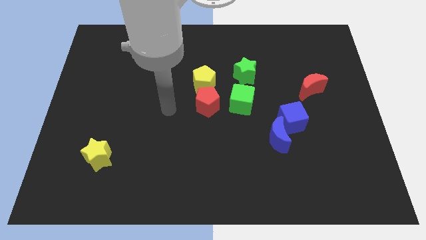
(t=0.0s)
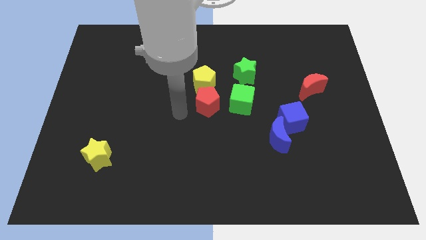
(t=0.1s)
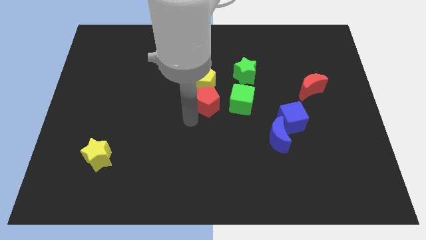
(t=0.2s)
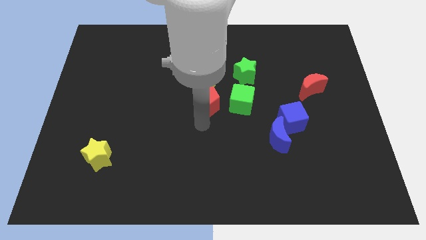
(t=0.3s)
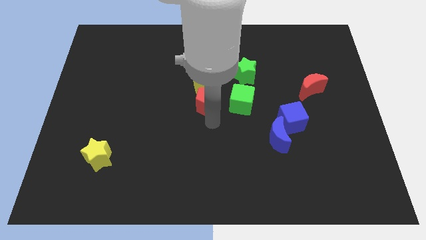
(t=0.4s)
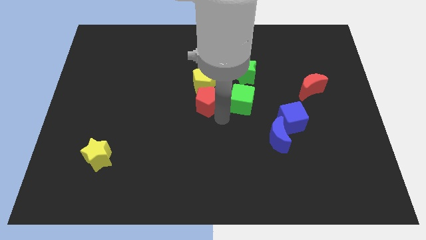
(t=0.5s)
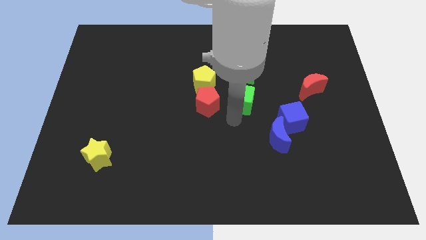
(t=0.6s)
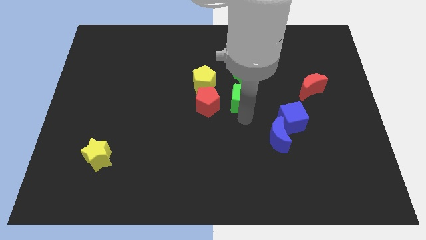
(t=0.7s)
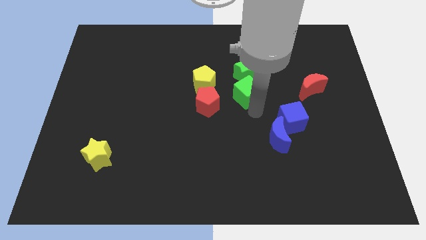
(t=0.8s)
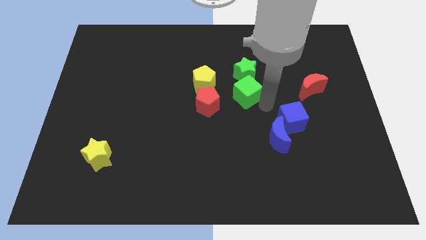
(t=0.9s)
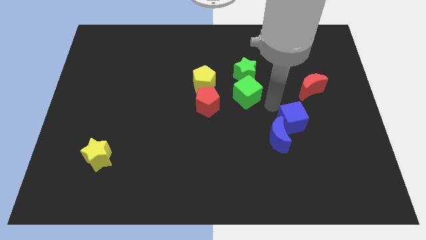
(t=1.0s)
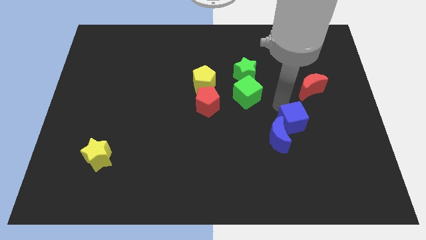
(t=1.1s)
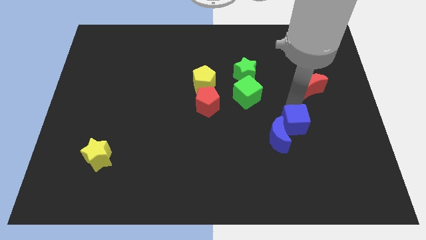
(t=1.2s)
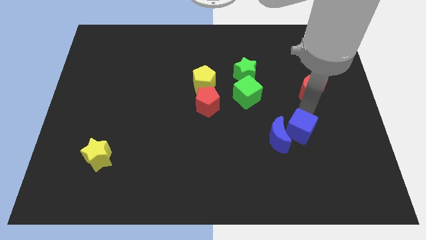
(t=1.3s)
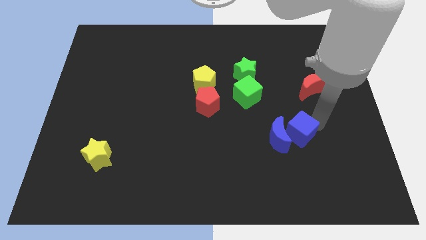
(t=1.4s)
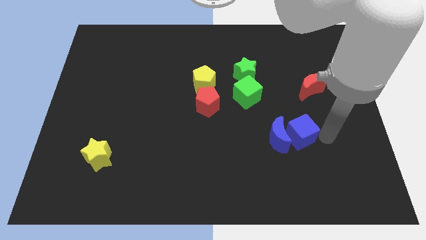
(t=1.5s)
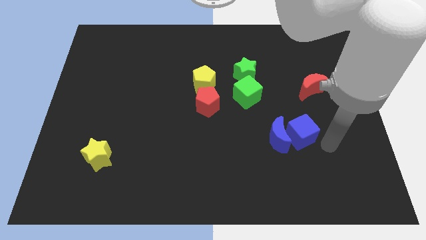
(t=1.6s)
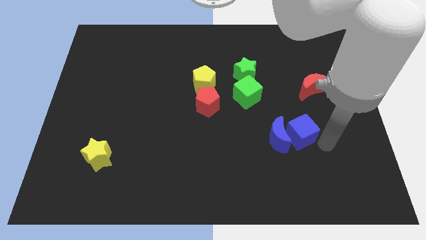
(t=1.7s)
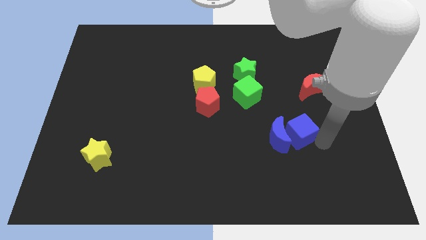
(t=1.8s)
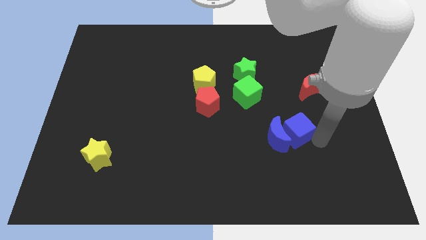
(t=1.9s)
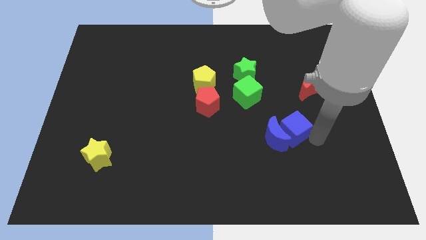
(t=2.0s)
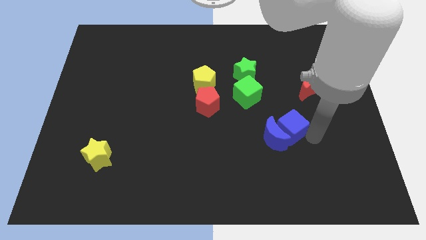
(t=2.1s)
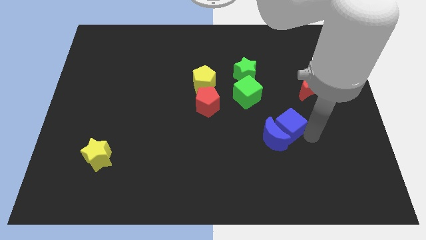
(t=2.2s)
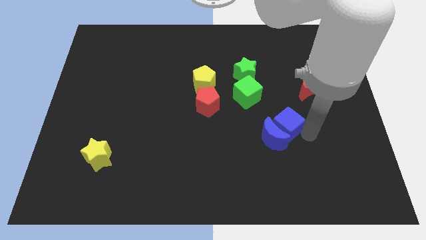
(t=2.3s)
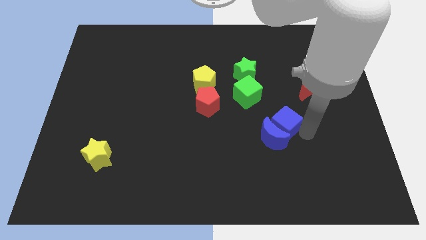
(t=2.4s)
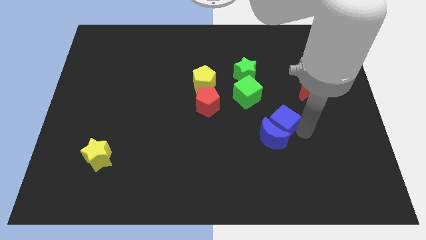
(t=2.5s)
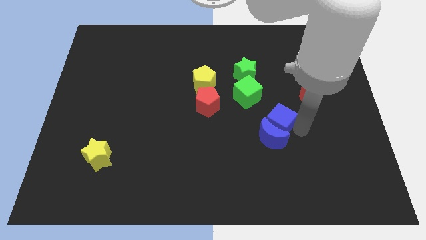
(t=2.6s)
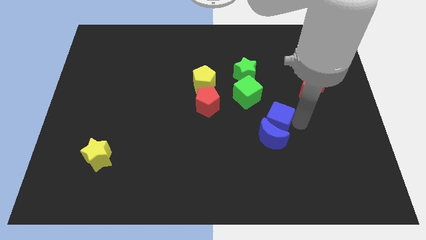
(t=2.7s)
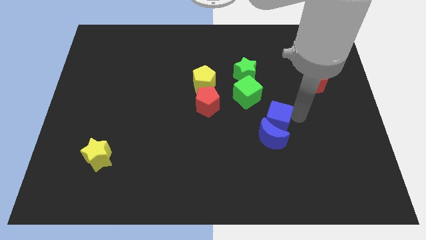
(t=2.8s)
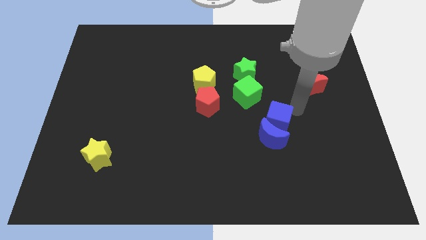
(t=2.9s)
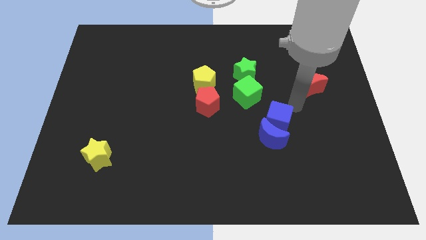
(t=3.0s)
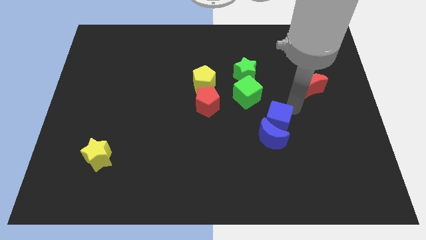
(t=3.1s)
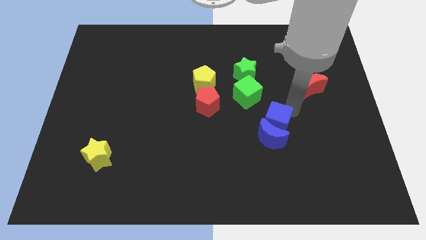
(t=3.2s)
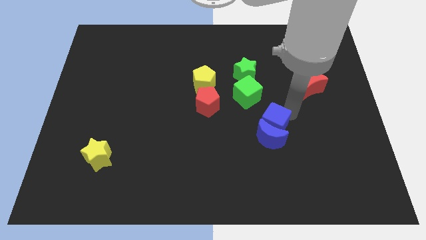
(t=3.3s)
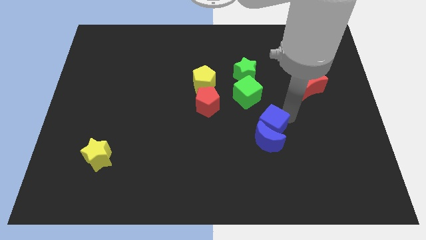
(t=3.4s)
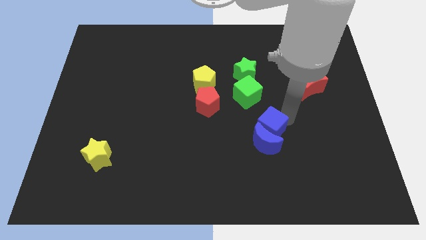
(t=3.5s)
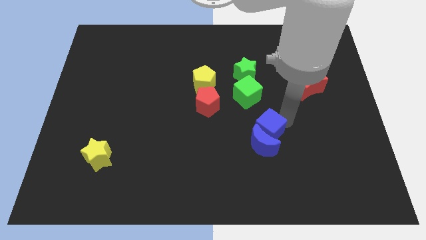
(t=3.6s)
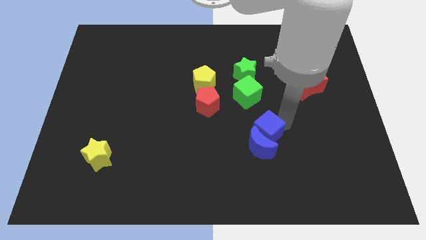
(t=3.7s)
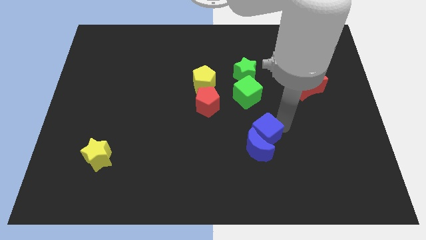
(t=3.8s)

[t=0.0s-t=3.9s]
slide the blue cube slightly downwards and to the left diagonally

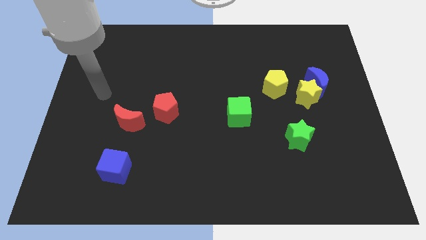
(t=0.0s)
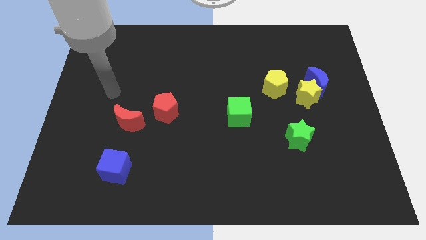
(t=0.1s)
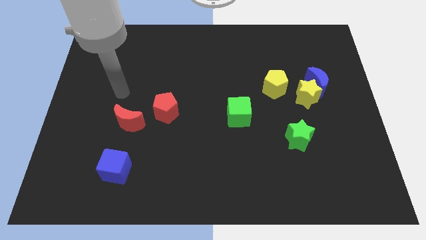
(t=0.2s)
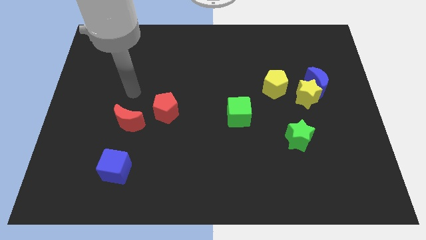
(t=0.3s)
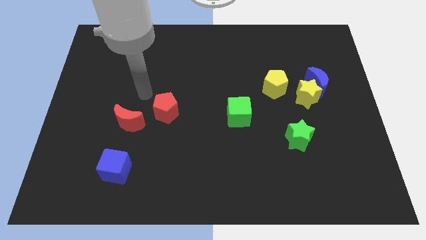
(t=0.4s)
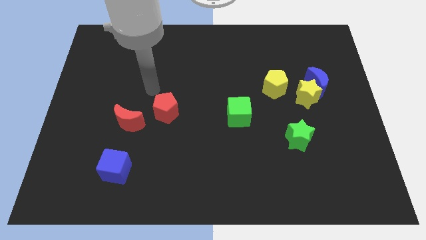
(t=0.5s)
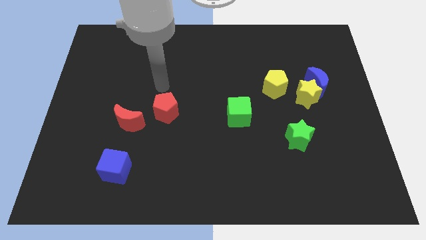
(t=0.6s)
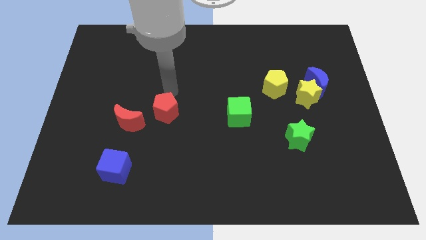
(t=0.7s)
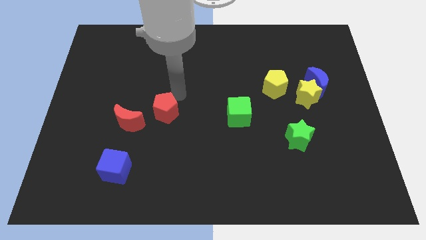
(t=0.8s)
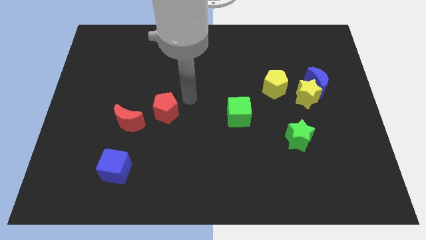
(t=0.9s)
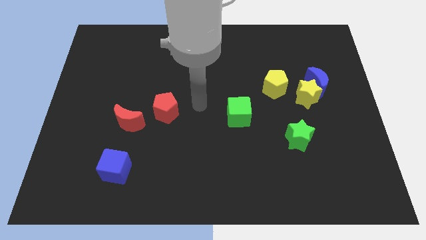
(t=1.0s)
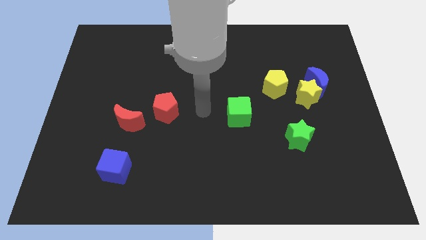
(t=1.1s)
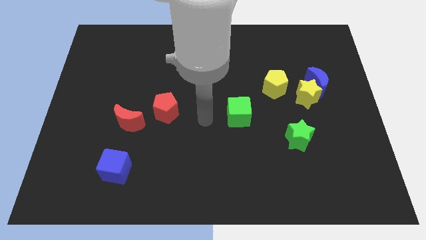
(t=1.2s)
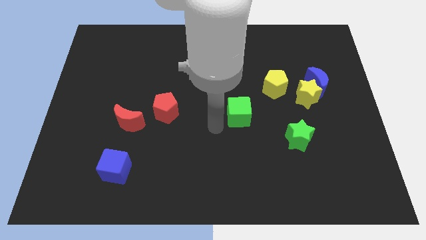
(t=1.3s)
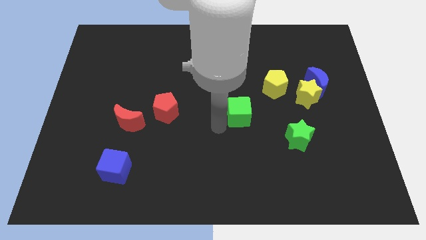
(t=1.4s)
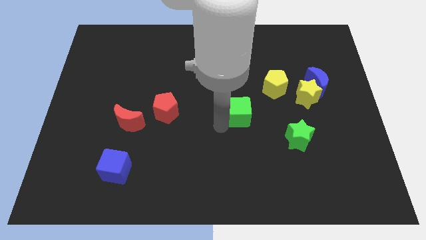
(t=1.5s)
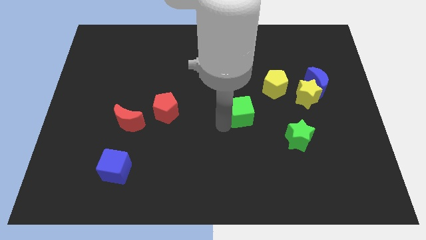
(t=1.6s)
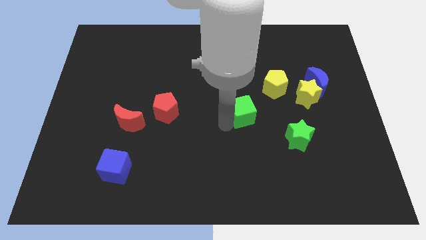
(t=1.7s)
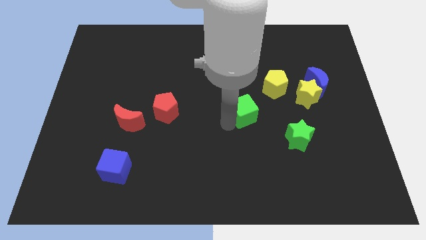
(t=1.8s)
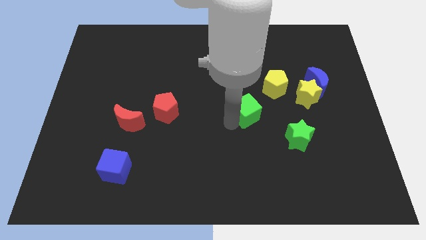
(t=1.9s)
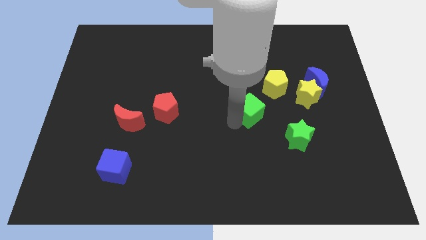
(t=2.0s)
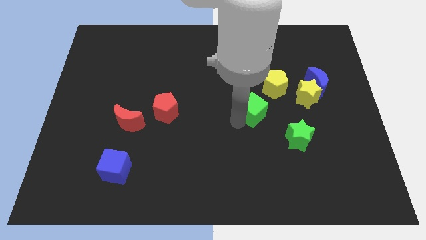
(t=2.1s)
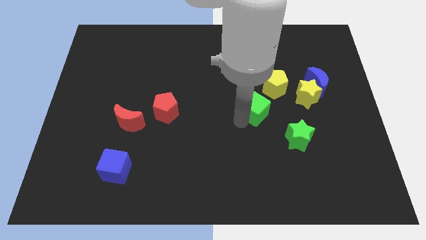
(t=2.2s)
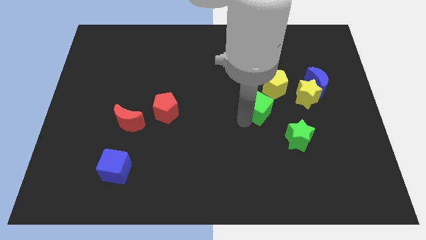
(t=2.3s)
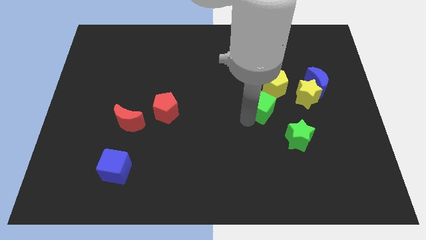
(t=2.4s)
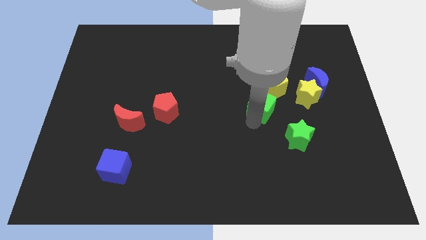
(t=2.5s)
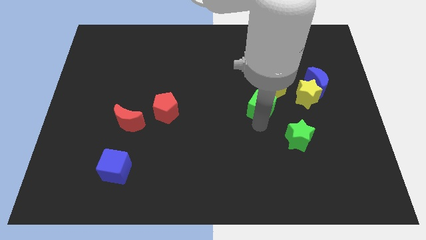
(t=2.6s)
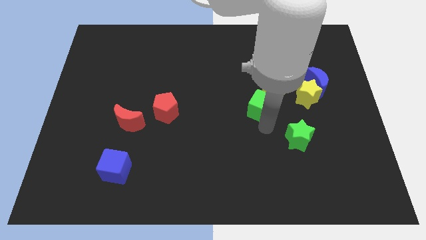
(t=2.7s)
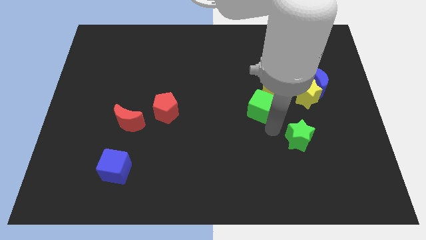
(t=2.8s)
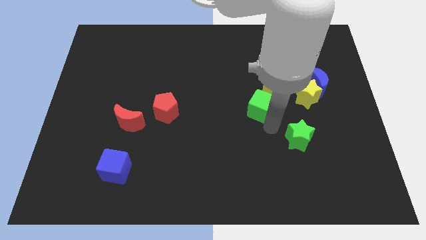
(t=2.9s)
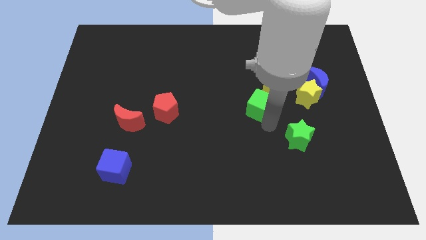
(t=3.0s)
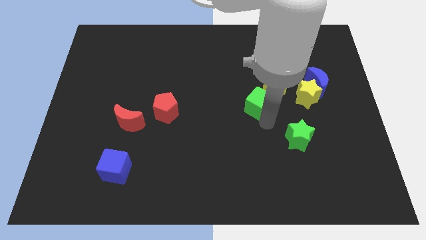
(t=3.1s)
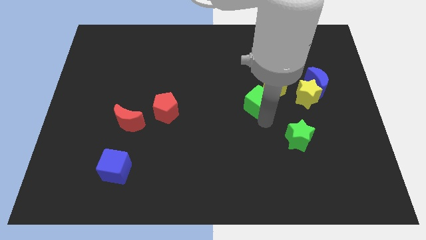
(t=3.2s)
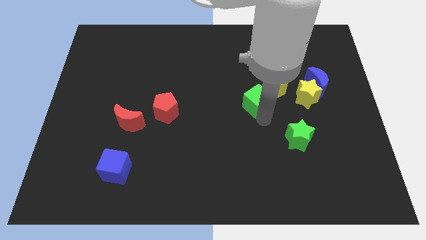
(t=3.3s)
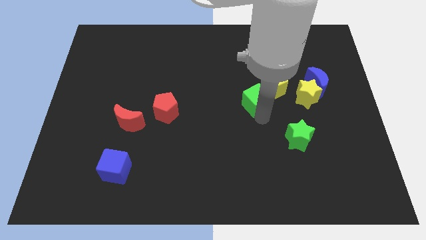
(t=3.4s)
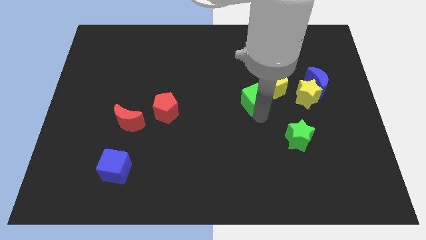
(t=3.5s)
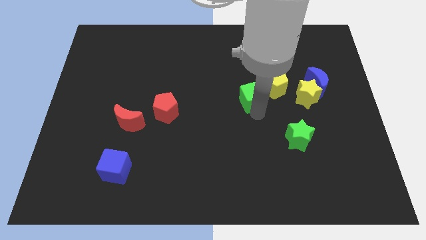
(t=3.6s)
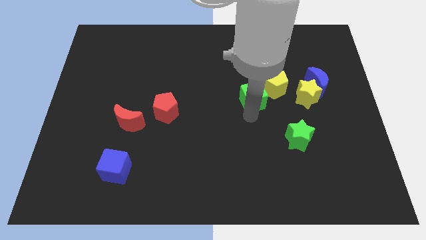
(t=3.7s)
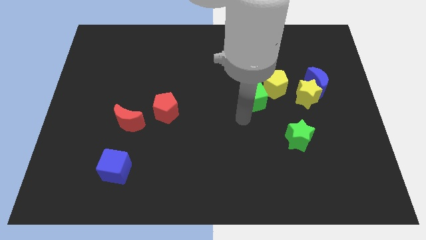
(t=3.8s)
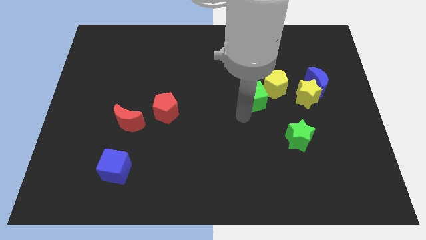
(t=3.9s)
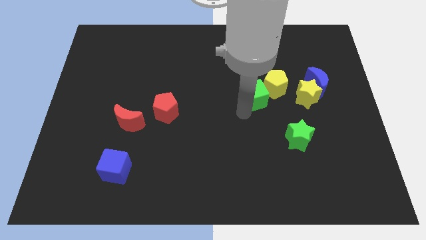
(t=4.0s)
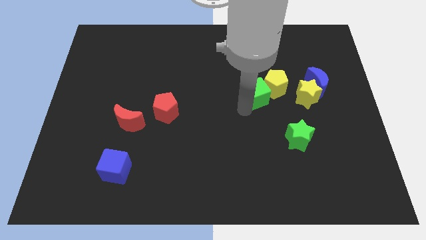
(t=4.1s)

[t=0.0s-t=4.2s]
slightly move the green cube diagonally upwards and to the right
